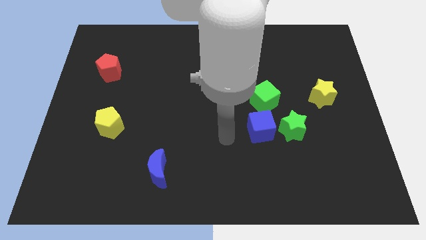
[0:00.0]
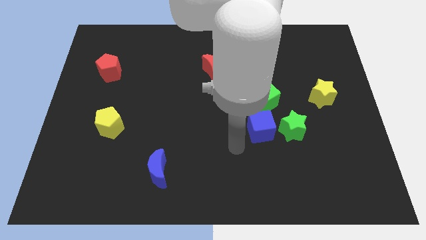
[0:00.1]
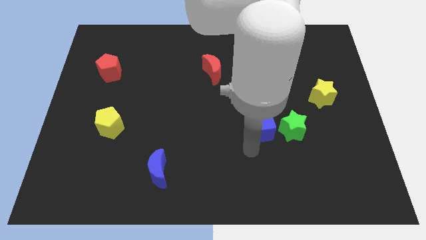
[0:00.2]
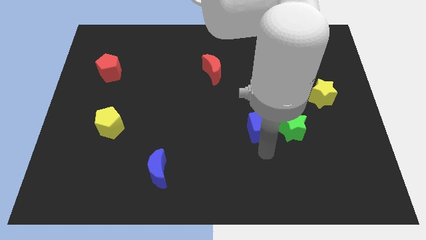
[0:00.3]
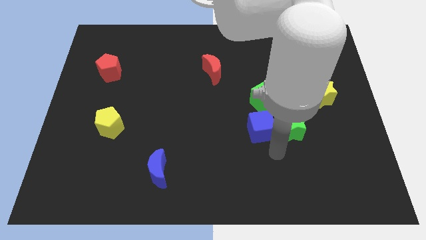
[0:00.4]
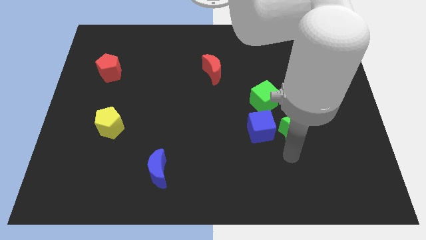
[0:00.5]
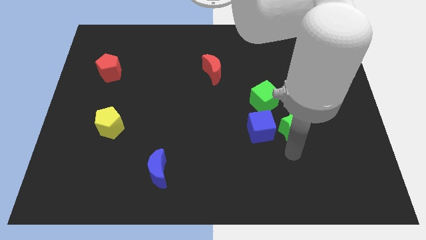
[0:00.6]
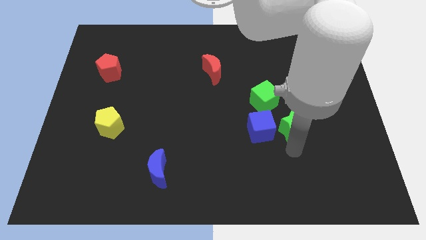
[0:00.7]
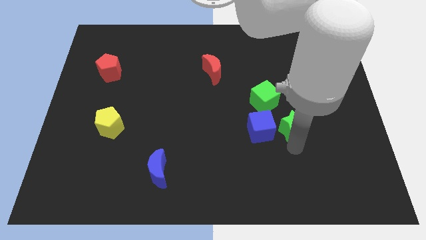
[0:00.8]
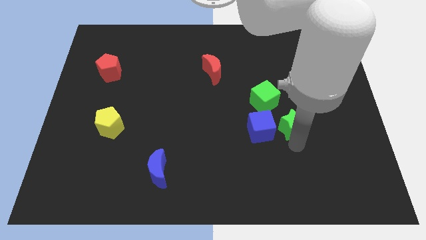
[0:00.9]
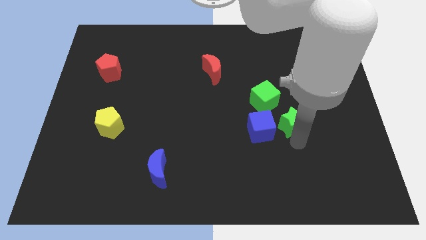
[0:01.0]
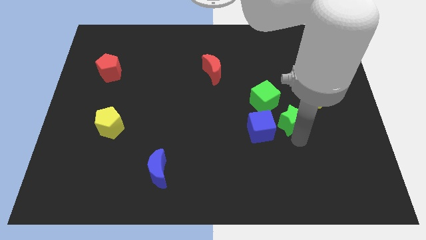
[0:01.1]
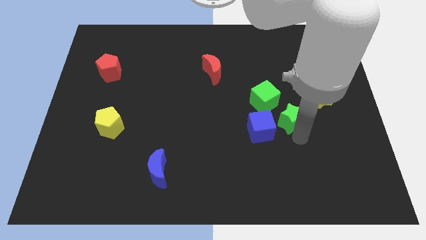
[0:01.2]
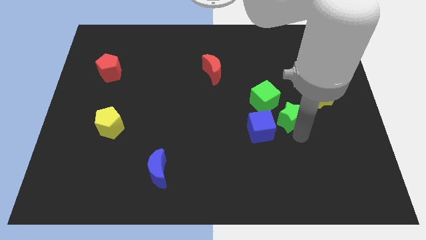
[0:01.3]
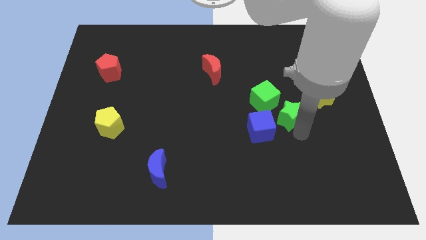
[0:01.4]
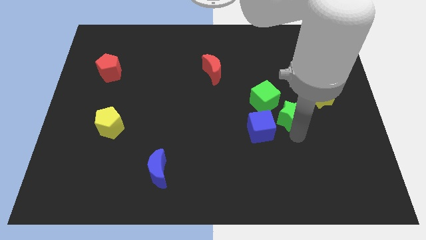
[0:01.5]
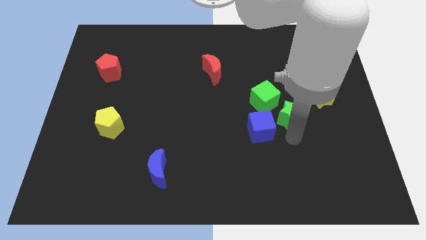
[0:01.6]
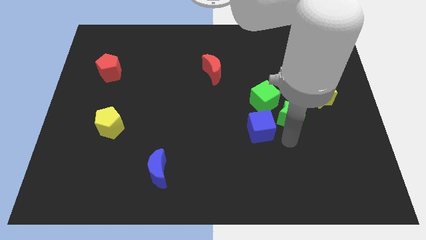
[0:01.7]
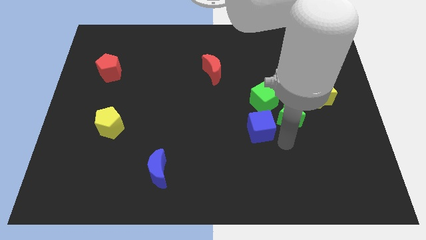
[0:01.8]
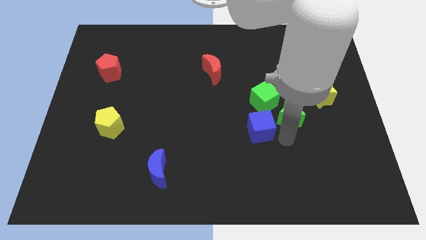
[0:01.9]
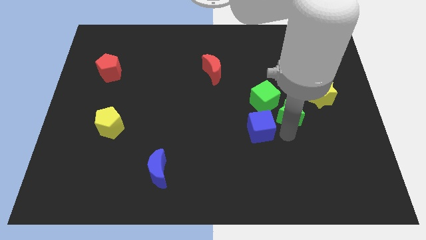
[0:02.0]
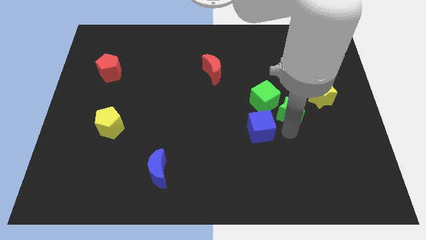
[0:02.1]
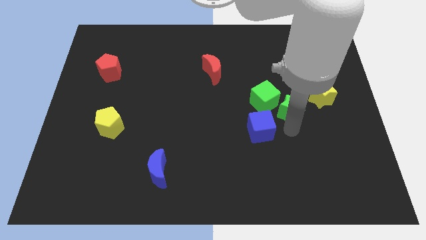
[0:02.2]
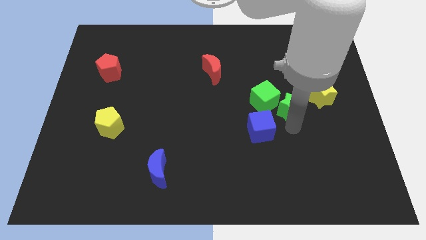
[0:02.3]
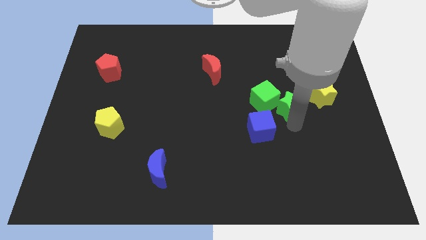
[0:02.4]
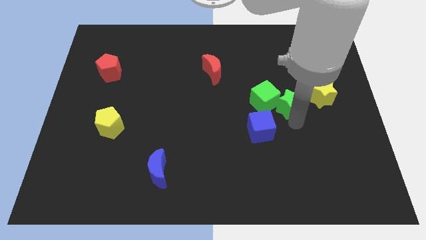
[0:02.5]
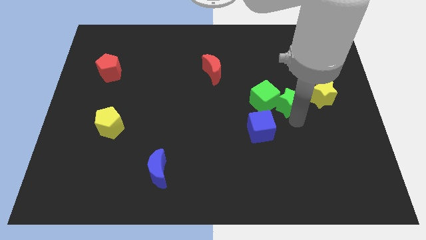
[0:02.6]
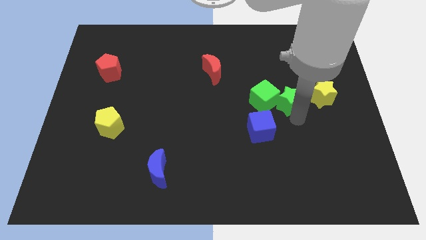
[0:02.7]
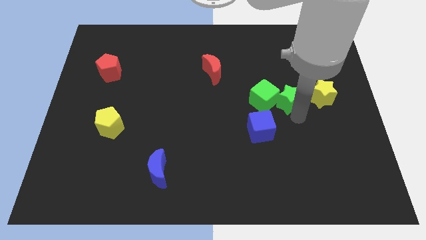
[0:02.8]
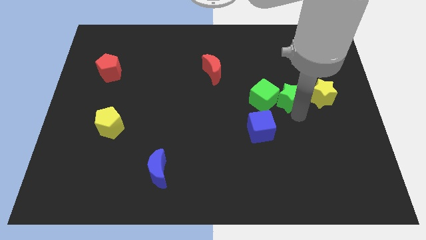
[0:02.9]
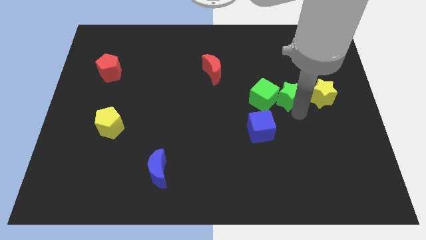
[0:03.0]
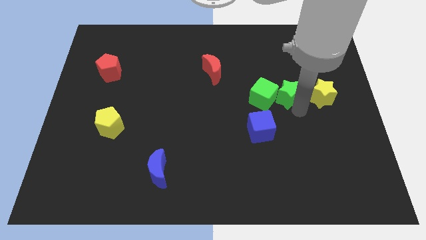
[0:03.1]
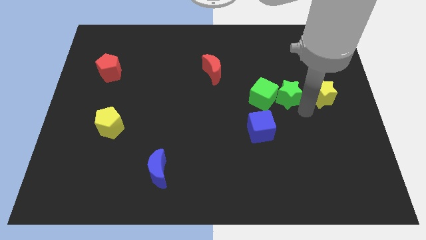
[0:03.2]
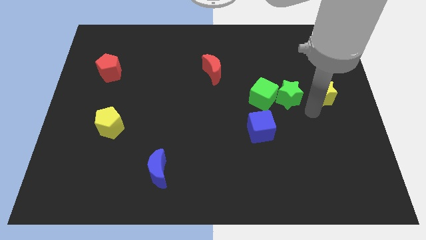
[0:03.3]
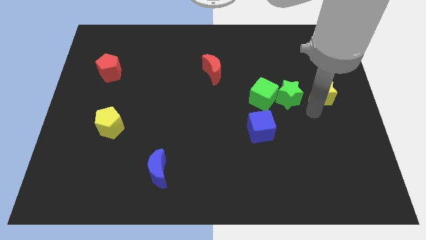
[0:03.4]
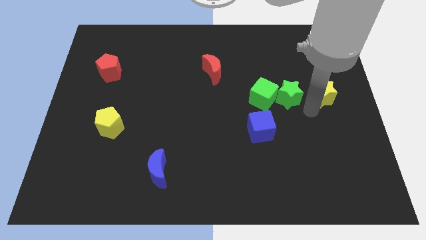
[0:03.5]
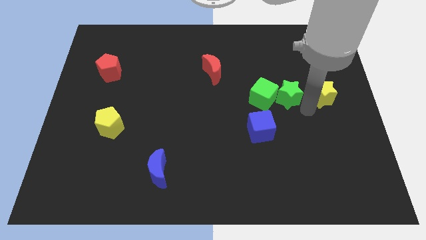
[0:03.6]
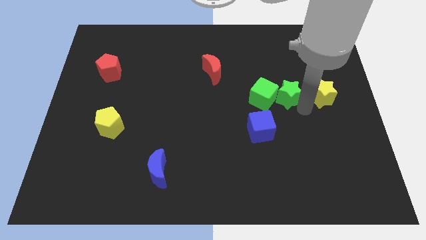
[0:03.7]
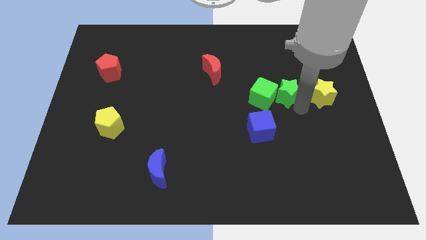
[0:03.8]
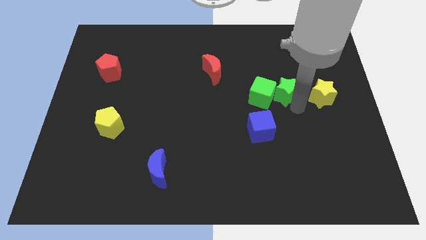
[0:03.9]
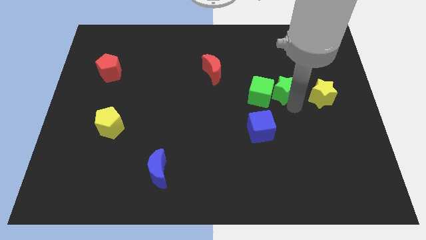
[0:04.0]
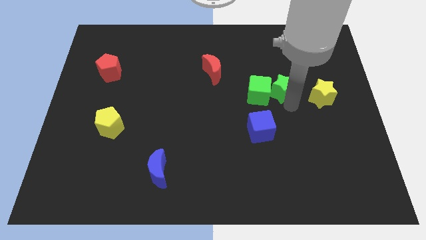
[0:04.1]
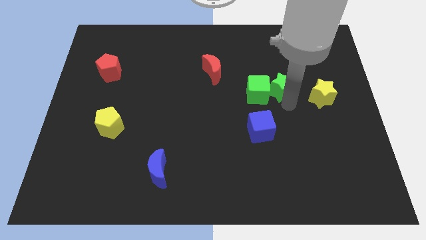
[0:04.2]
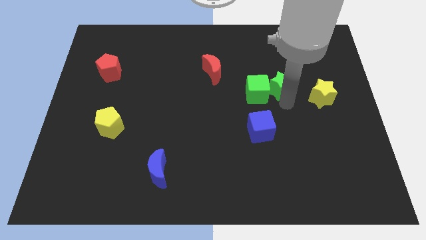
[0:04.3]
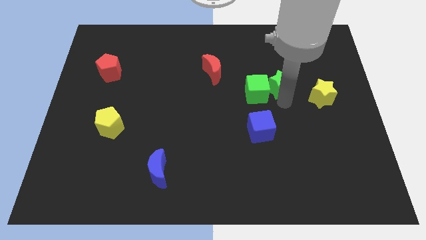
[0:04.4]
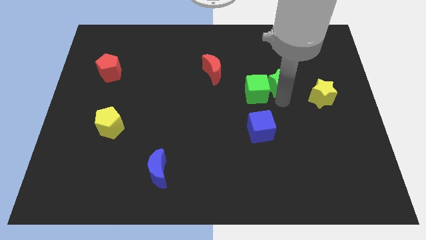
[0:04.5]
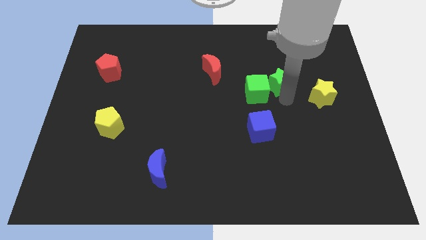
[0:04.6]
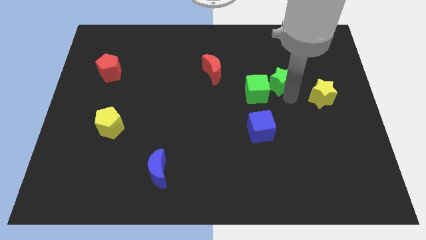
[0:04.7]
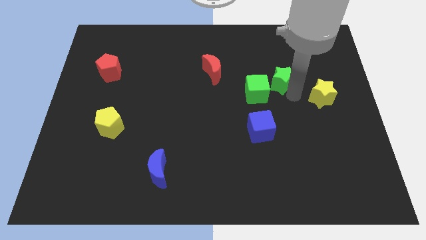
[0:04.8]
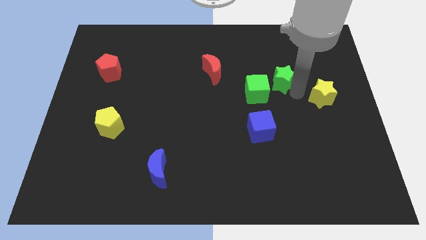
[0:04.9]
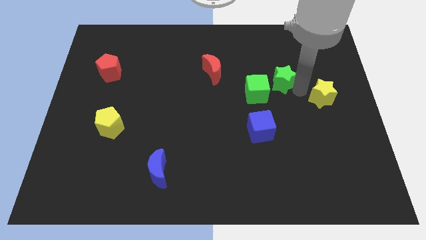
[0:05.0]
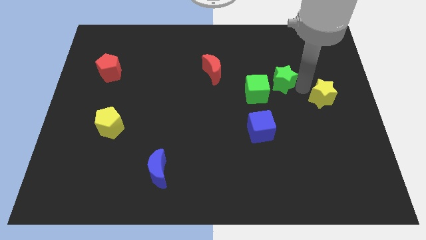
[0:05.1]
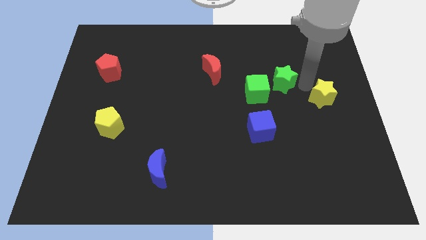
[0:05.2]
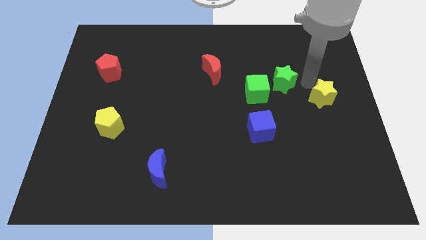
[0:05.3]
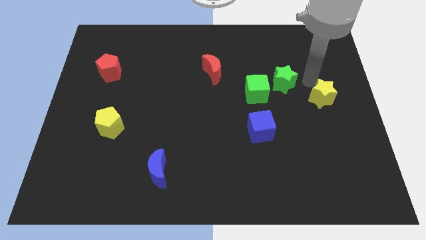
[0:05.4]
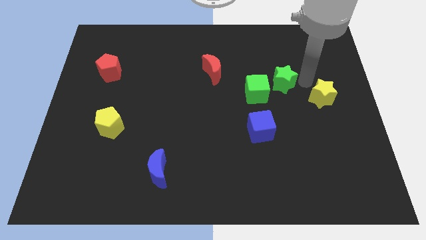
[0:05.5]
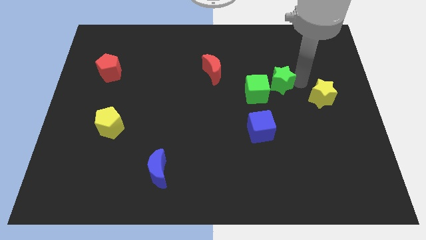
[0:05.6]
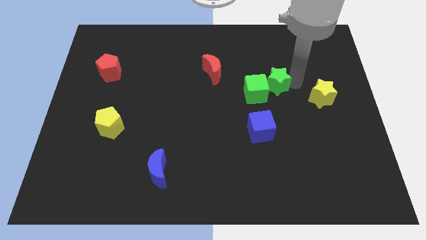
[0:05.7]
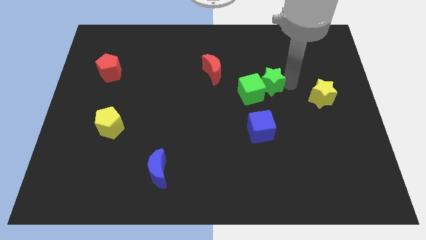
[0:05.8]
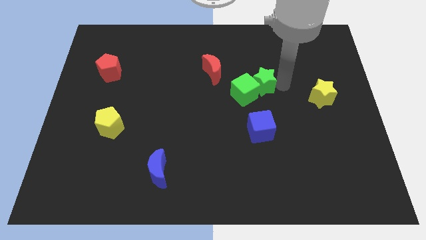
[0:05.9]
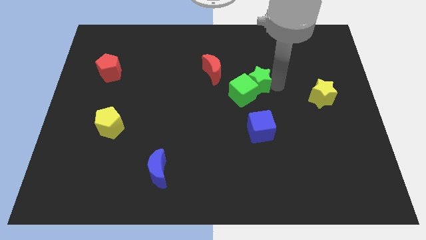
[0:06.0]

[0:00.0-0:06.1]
put the green star to the middle of the board

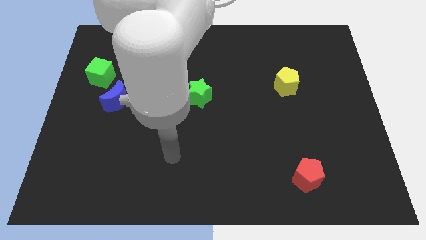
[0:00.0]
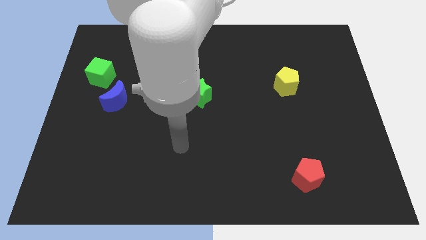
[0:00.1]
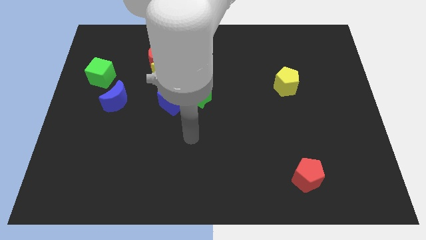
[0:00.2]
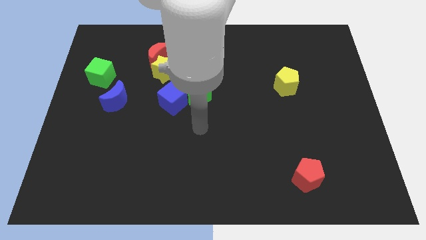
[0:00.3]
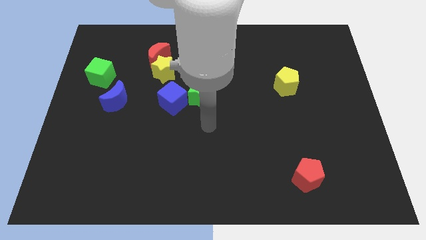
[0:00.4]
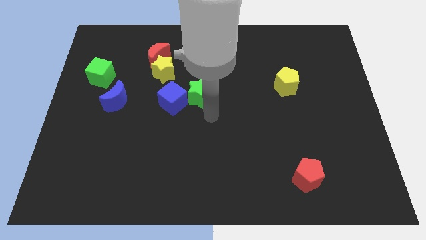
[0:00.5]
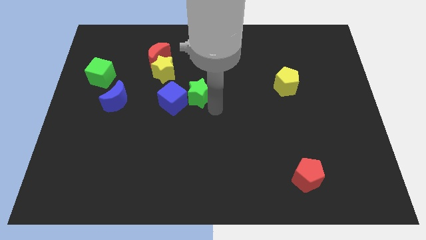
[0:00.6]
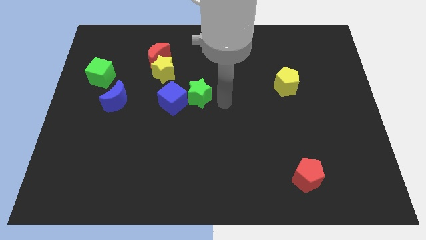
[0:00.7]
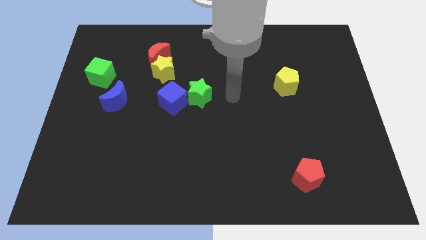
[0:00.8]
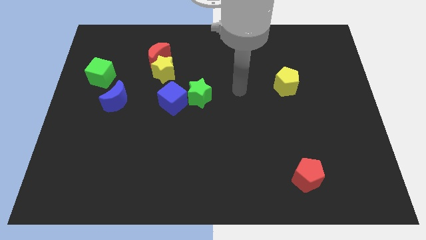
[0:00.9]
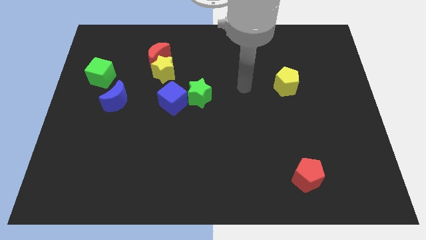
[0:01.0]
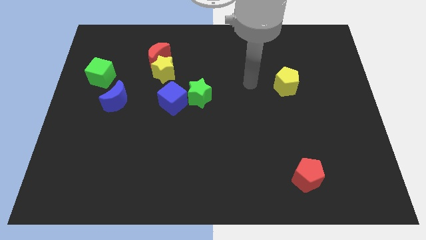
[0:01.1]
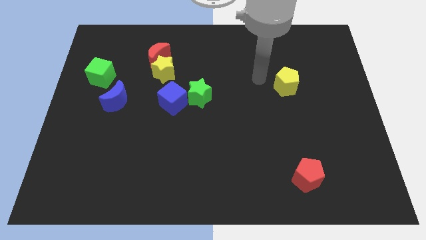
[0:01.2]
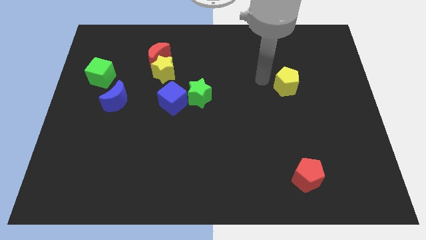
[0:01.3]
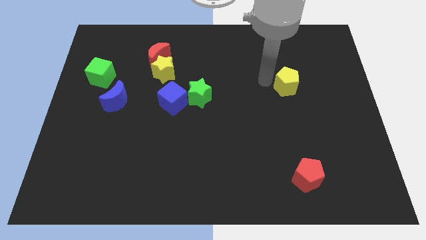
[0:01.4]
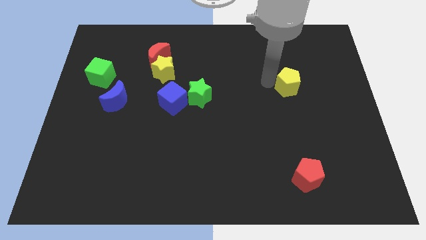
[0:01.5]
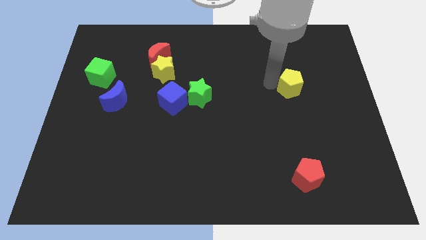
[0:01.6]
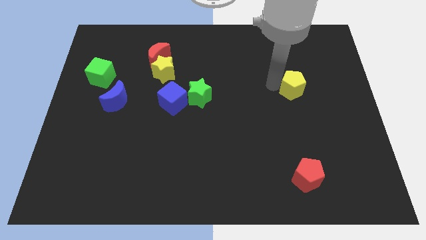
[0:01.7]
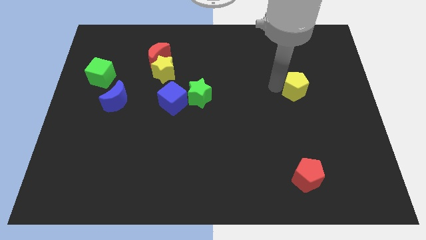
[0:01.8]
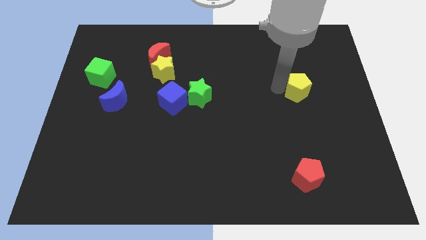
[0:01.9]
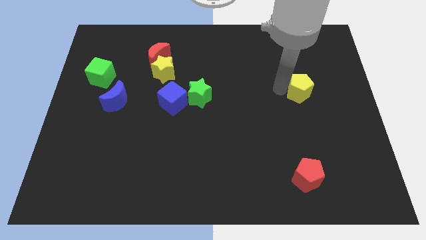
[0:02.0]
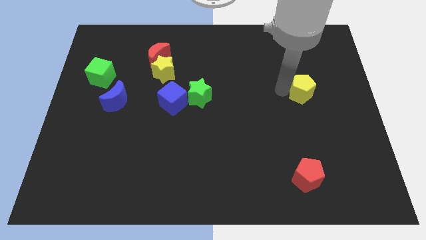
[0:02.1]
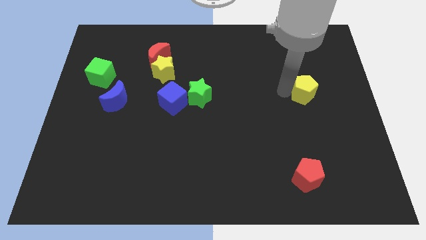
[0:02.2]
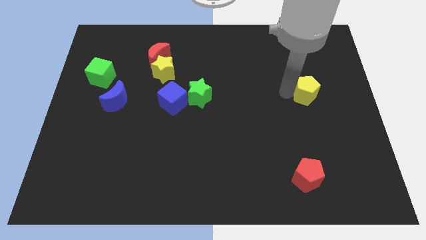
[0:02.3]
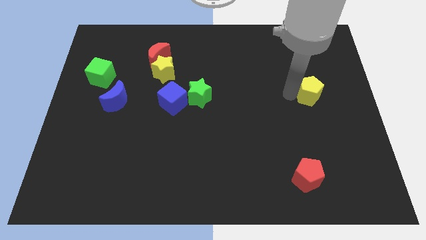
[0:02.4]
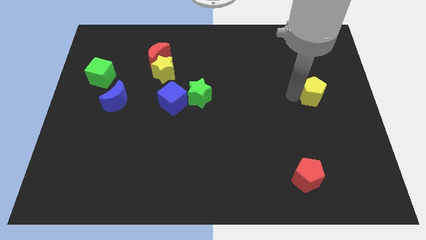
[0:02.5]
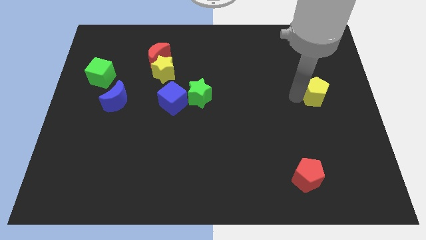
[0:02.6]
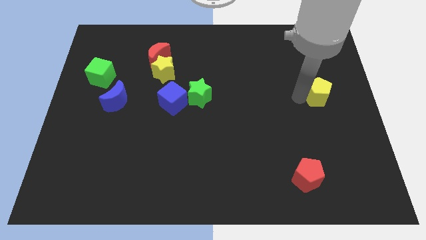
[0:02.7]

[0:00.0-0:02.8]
put the yellow pentagon to the right side of the board
